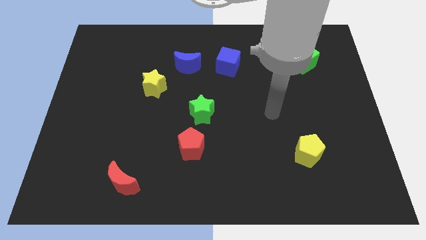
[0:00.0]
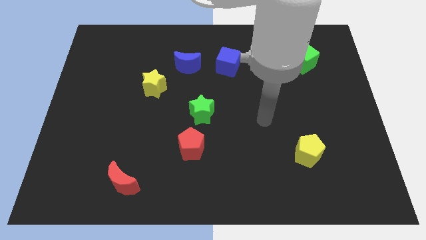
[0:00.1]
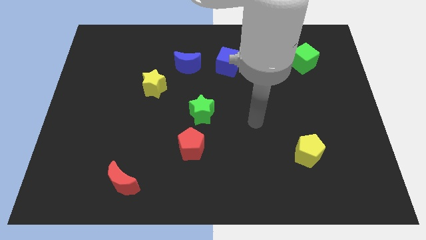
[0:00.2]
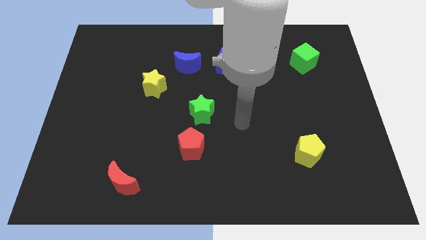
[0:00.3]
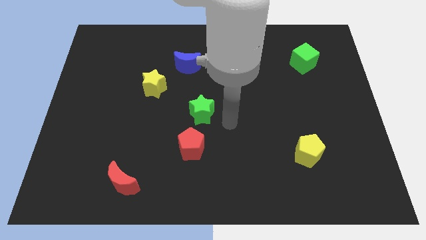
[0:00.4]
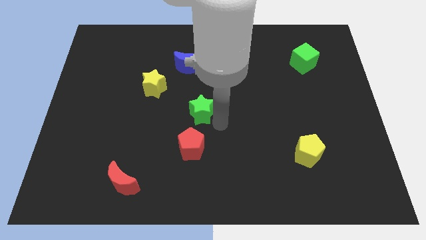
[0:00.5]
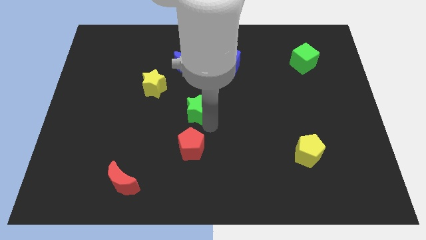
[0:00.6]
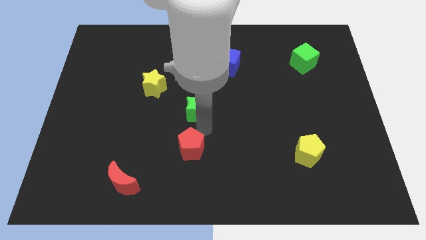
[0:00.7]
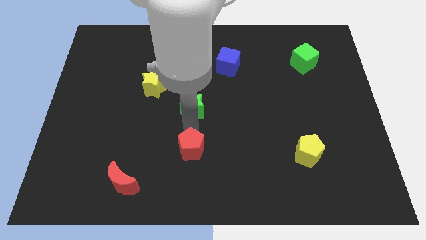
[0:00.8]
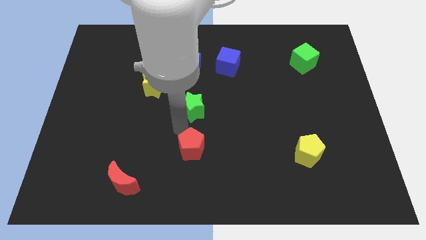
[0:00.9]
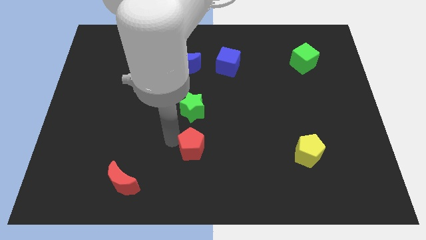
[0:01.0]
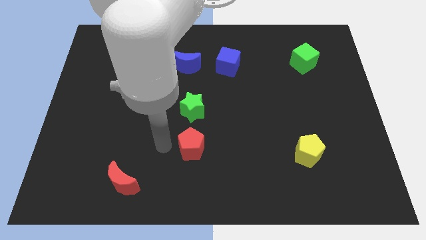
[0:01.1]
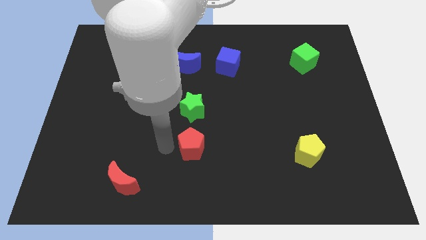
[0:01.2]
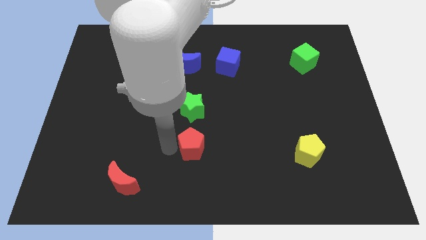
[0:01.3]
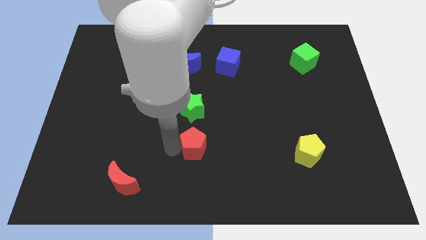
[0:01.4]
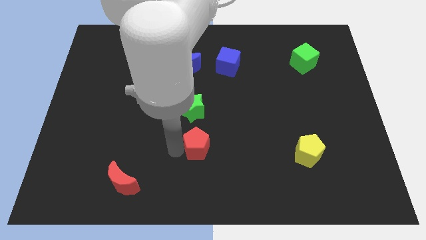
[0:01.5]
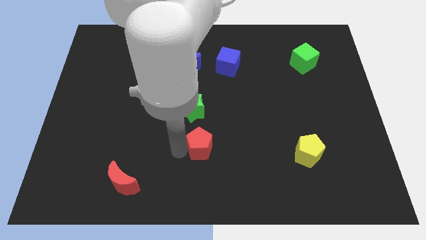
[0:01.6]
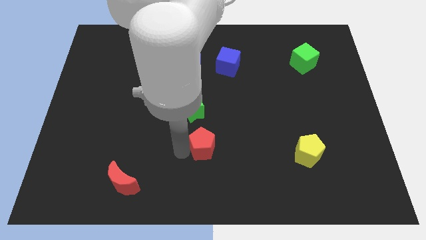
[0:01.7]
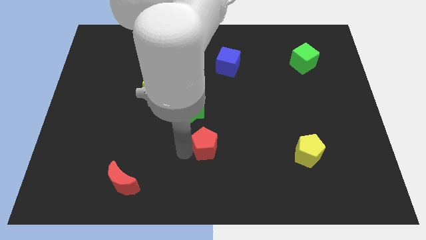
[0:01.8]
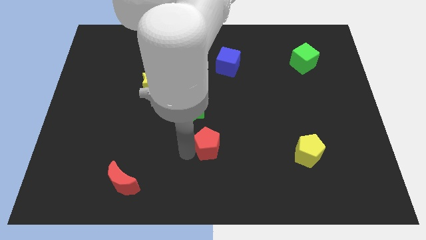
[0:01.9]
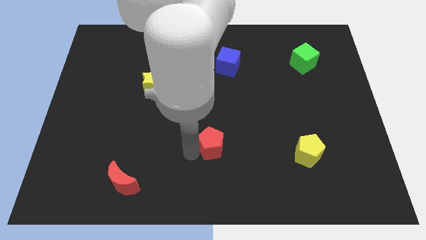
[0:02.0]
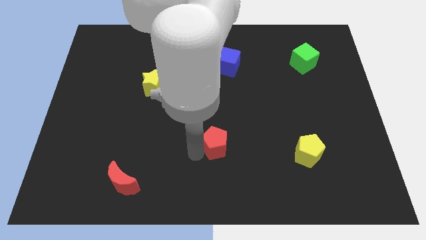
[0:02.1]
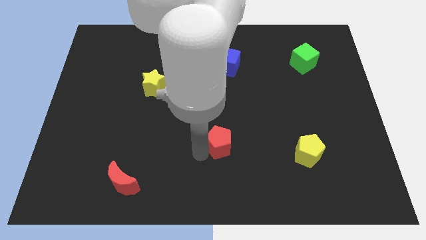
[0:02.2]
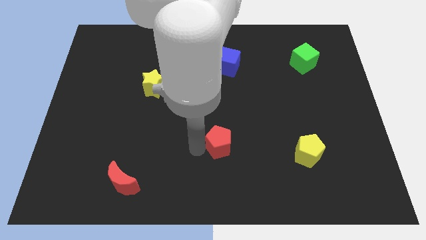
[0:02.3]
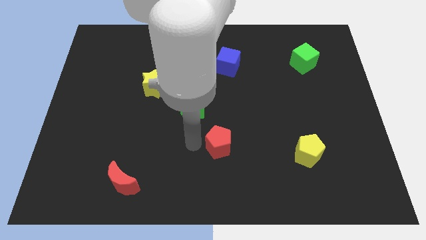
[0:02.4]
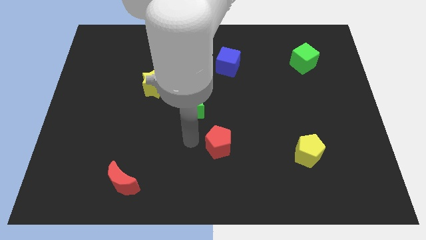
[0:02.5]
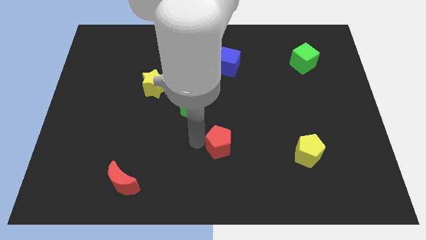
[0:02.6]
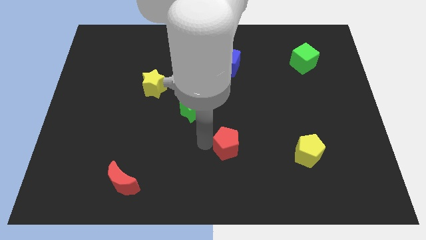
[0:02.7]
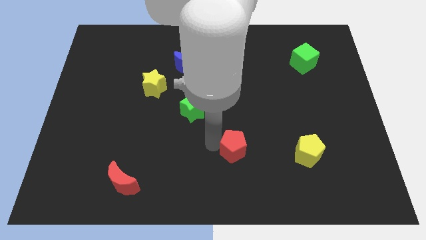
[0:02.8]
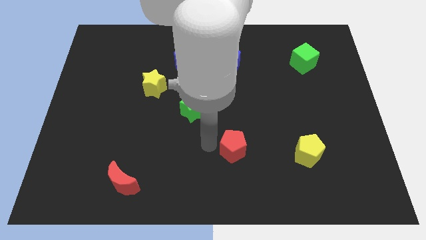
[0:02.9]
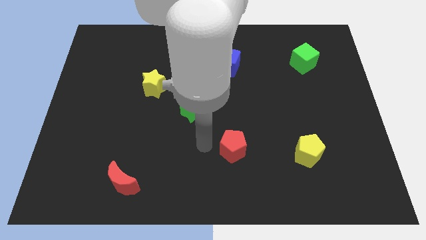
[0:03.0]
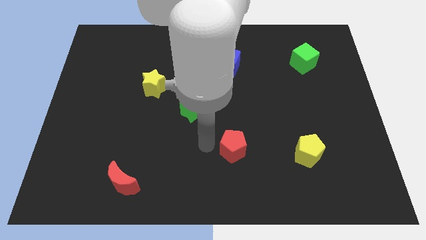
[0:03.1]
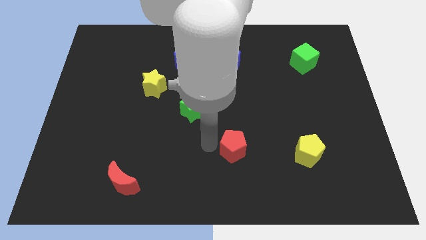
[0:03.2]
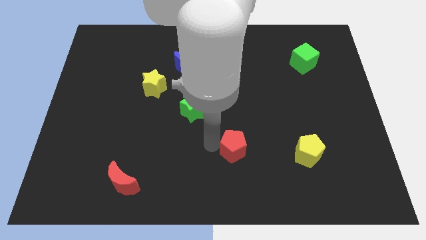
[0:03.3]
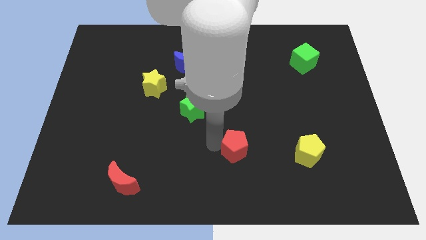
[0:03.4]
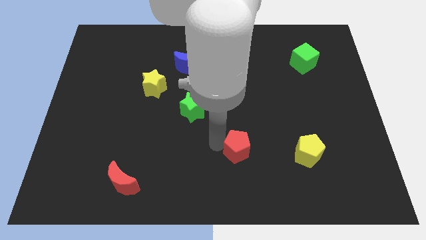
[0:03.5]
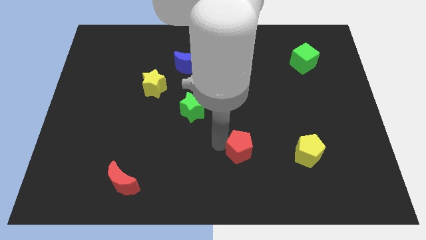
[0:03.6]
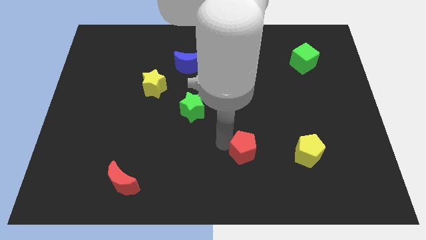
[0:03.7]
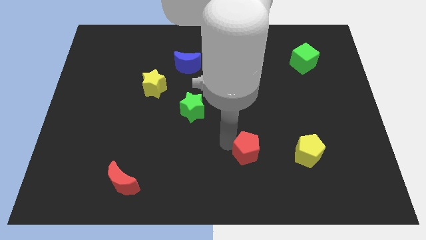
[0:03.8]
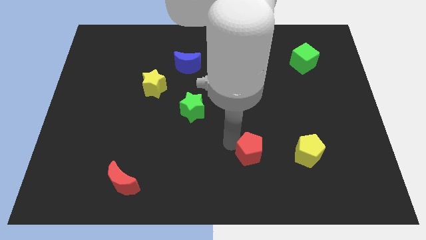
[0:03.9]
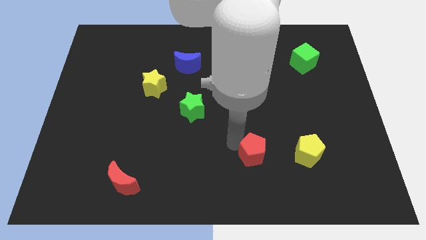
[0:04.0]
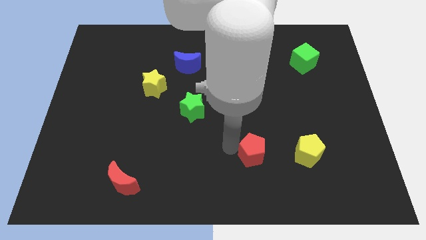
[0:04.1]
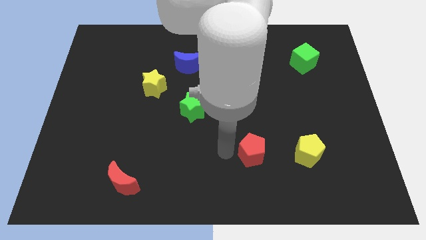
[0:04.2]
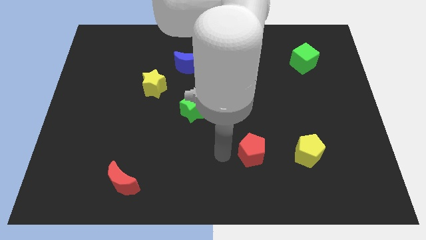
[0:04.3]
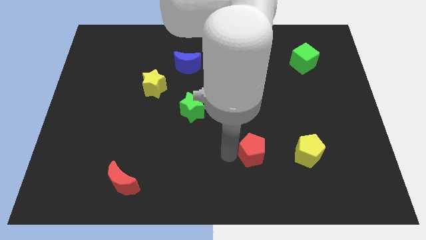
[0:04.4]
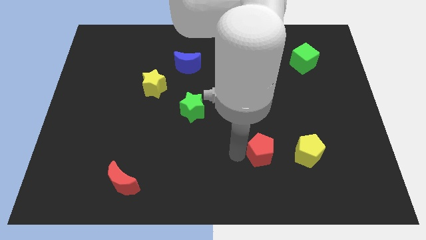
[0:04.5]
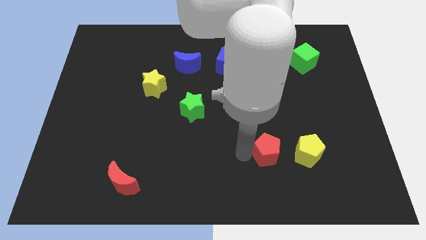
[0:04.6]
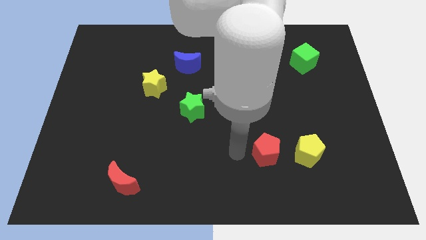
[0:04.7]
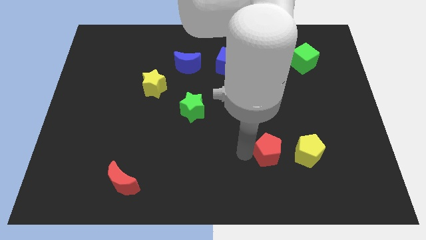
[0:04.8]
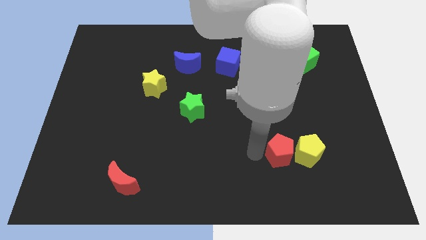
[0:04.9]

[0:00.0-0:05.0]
put the red pentagon towards the yellow pentagon

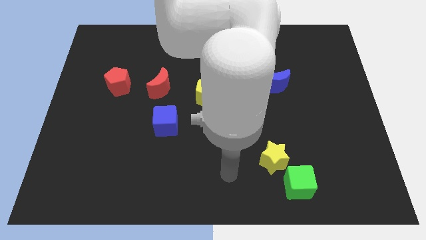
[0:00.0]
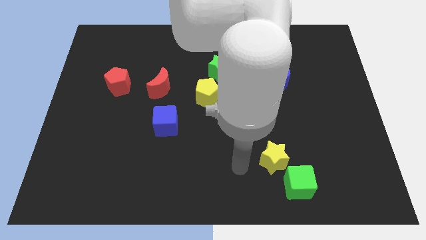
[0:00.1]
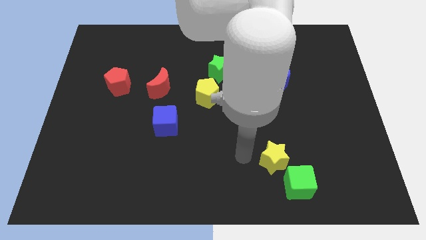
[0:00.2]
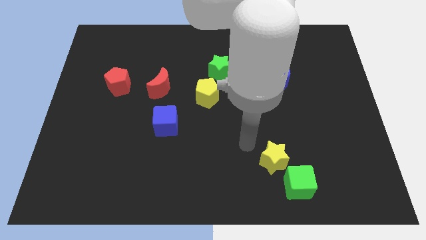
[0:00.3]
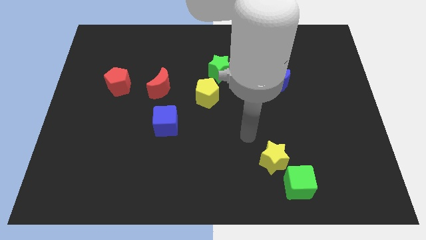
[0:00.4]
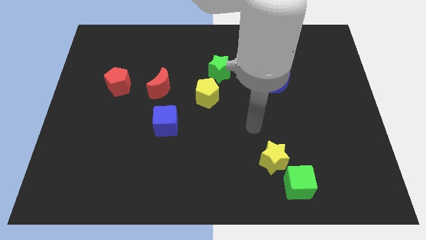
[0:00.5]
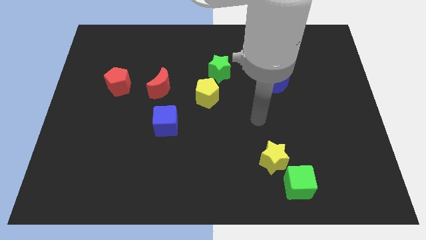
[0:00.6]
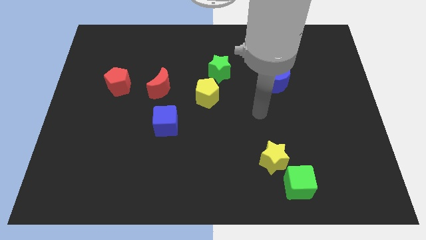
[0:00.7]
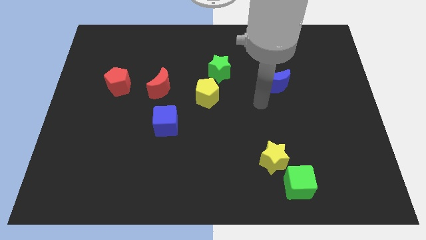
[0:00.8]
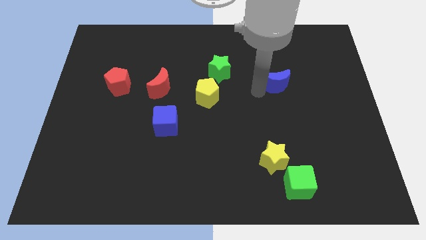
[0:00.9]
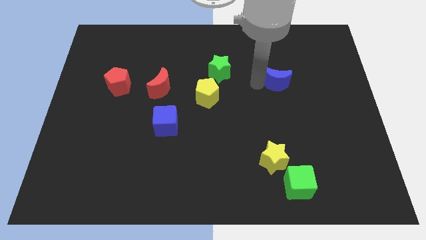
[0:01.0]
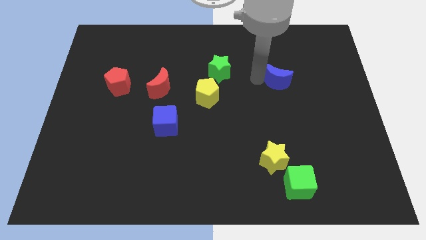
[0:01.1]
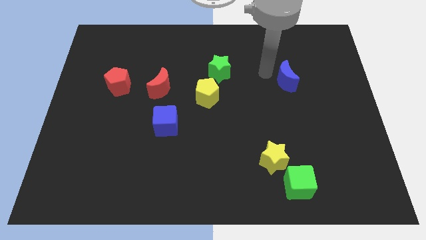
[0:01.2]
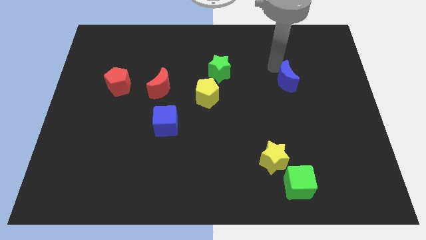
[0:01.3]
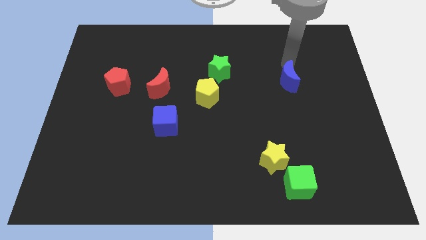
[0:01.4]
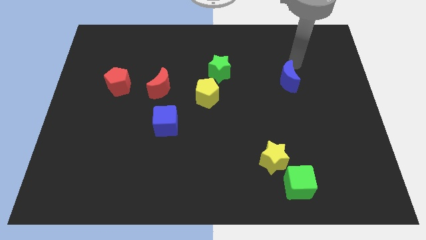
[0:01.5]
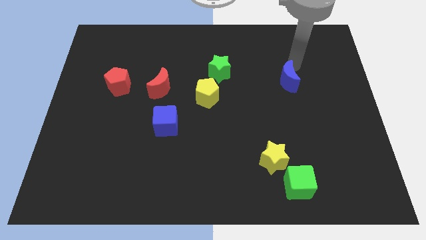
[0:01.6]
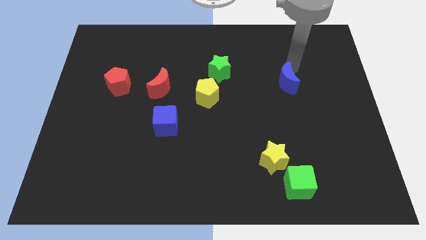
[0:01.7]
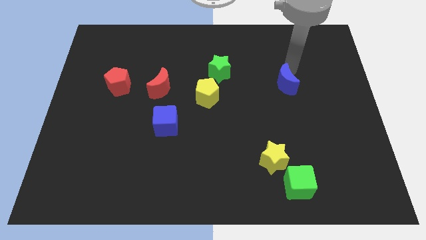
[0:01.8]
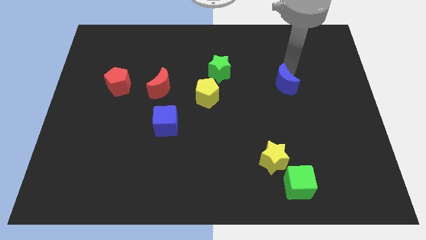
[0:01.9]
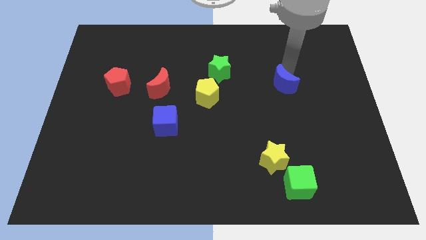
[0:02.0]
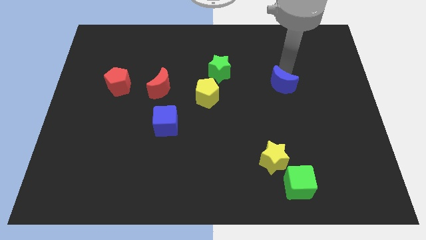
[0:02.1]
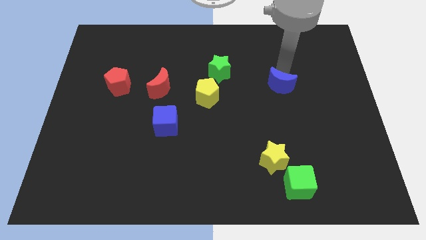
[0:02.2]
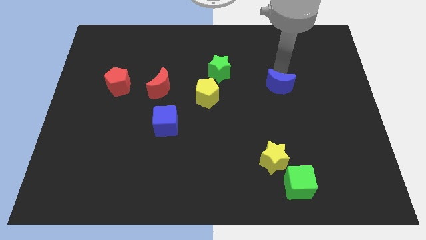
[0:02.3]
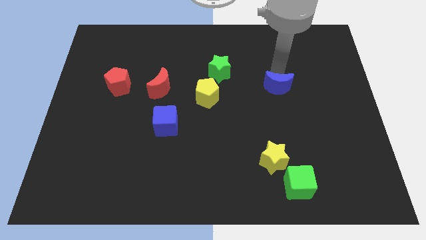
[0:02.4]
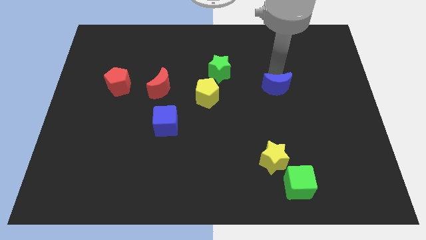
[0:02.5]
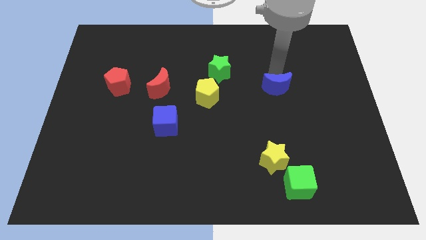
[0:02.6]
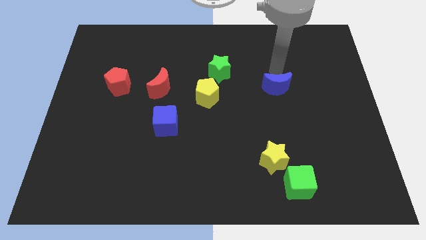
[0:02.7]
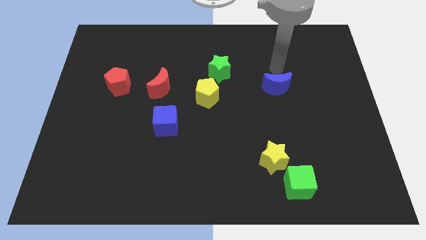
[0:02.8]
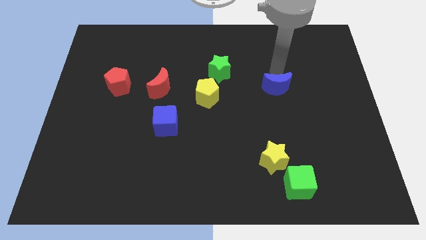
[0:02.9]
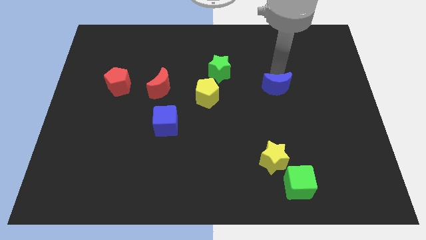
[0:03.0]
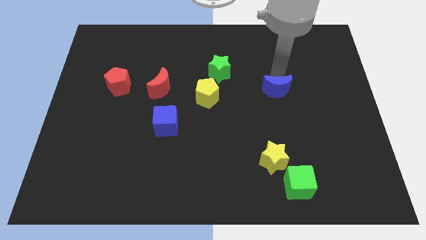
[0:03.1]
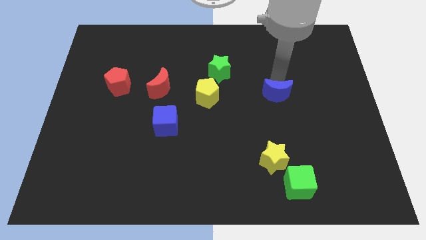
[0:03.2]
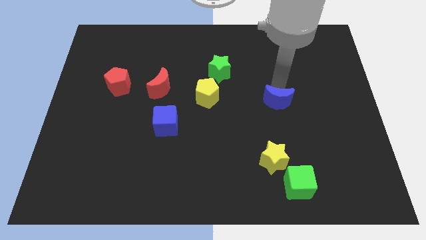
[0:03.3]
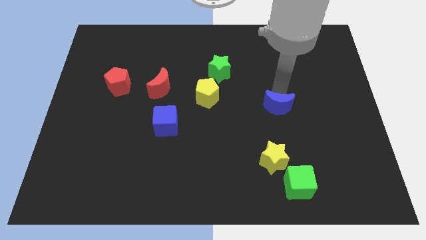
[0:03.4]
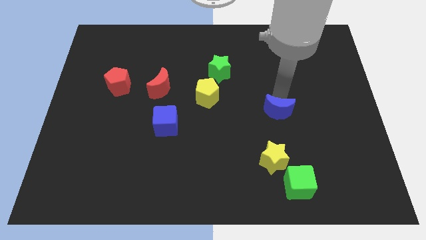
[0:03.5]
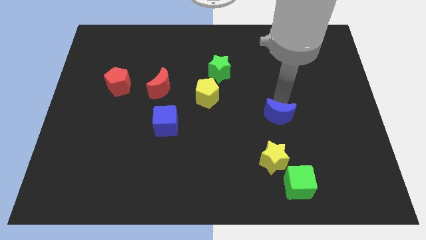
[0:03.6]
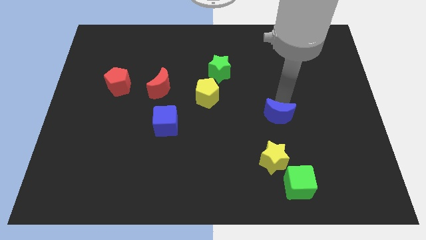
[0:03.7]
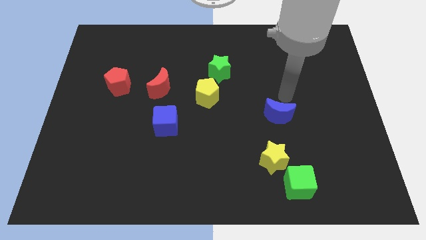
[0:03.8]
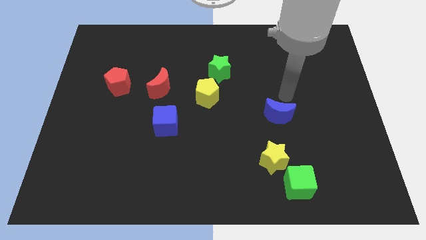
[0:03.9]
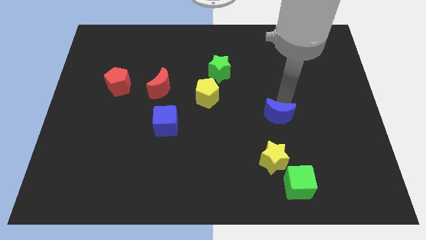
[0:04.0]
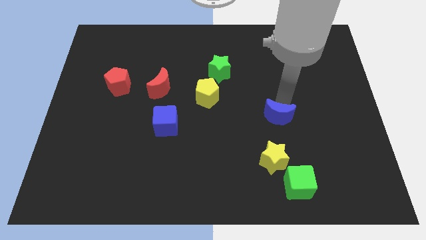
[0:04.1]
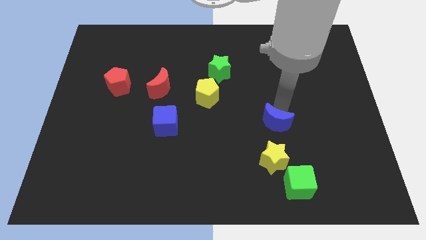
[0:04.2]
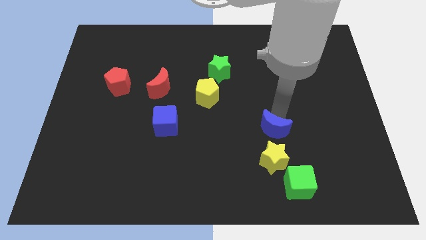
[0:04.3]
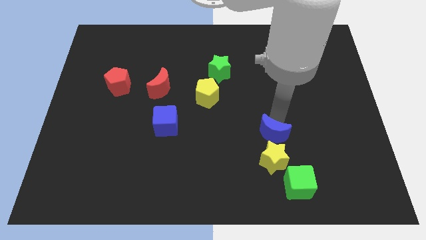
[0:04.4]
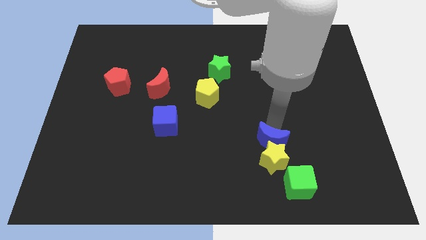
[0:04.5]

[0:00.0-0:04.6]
put the blue moon next to the yellow star
